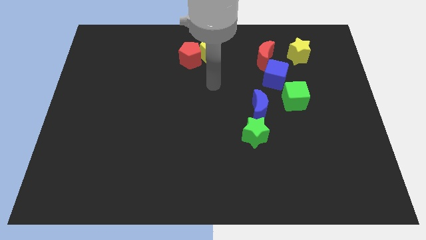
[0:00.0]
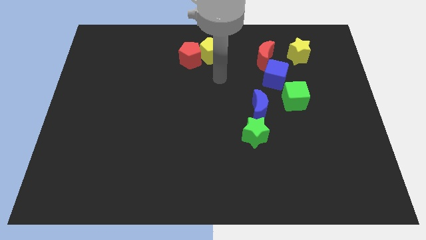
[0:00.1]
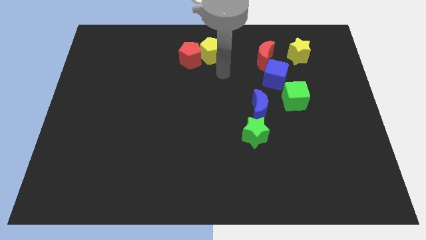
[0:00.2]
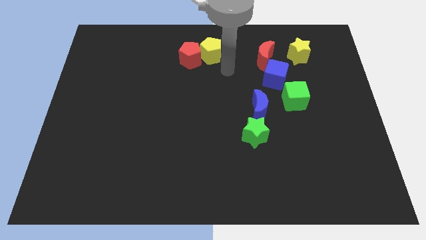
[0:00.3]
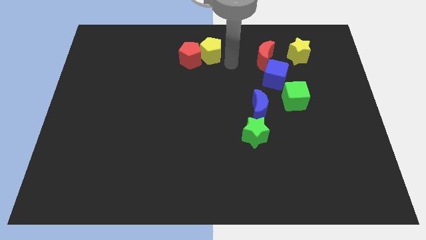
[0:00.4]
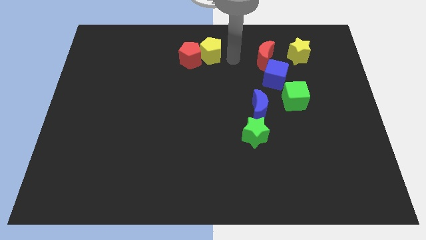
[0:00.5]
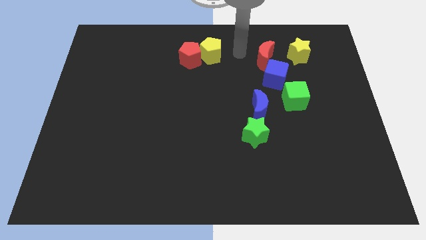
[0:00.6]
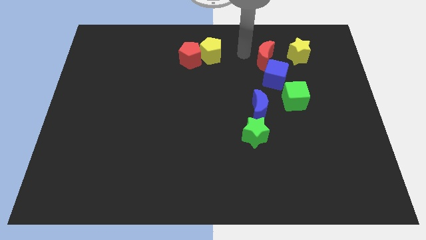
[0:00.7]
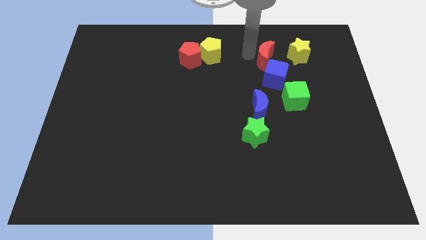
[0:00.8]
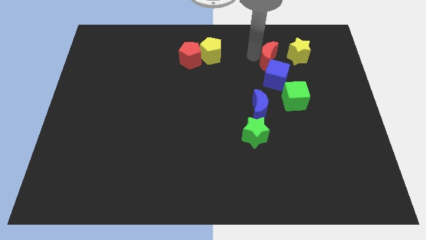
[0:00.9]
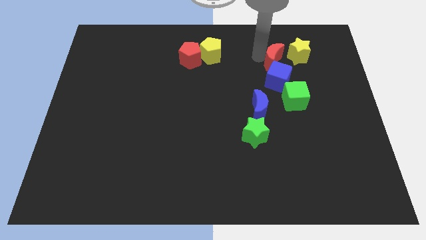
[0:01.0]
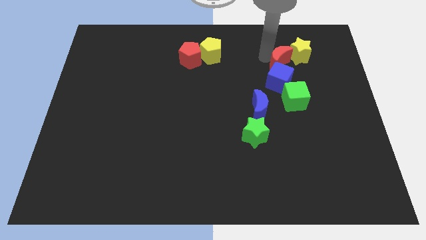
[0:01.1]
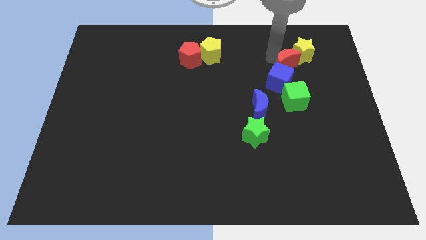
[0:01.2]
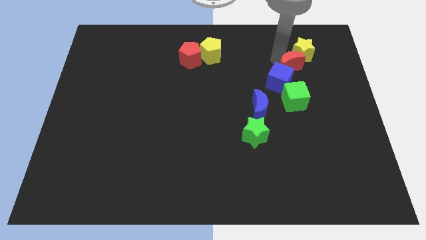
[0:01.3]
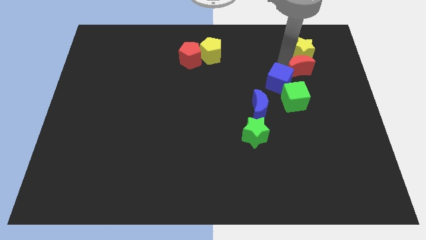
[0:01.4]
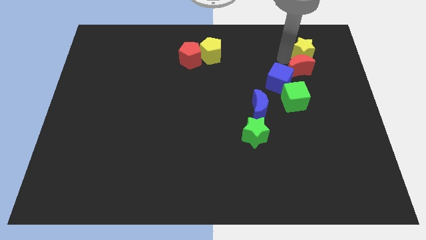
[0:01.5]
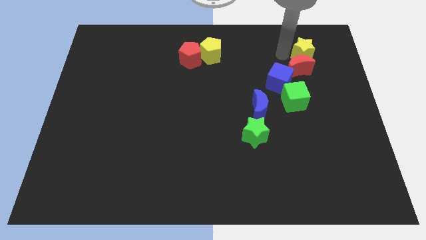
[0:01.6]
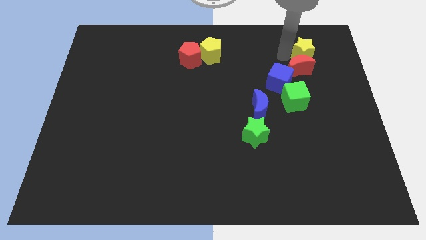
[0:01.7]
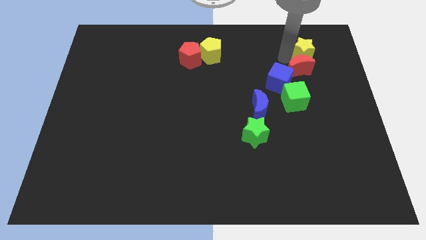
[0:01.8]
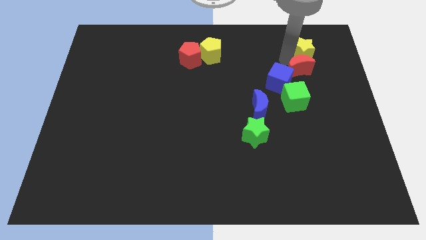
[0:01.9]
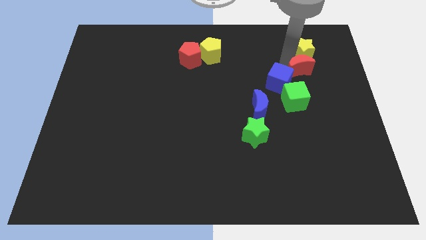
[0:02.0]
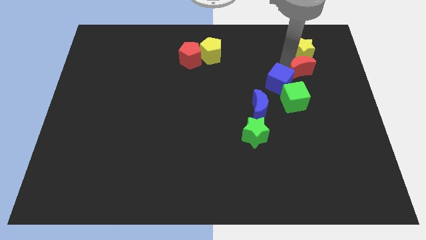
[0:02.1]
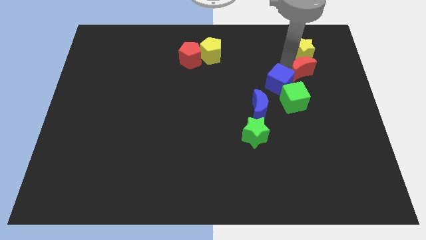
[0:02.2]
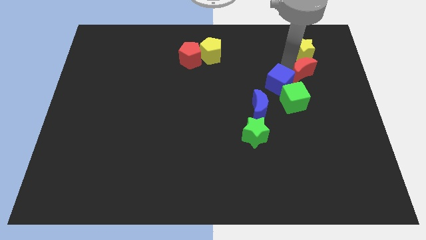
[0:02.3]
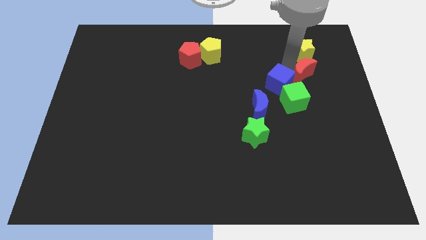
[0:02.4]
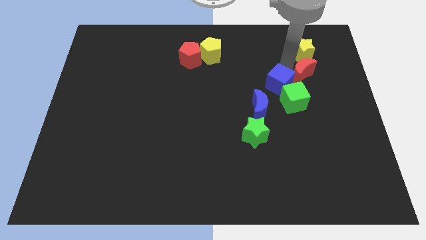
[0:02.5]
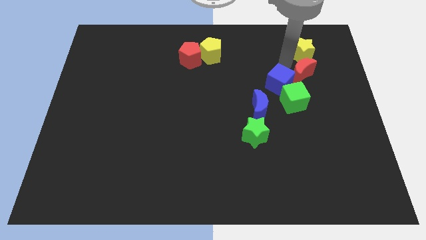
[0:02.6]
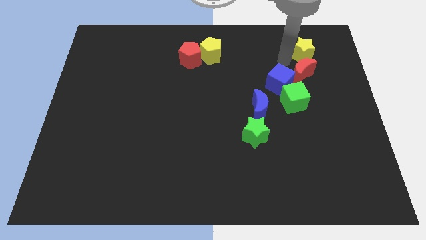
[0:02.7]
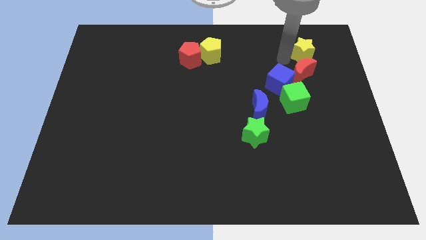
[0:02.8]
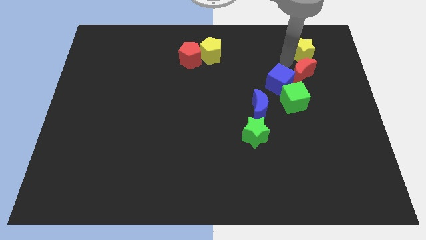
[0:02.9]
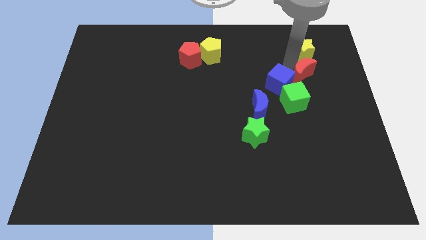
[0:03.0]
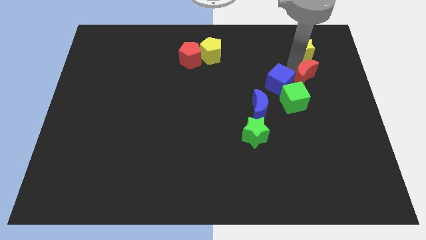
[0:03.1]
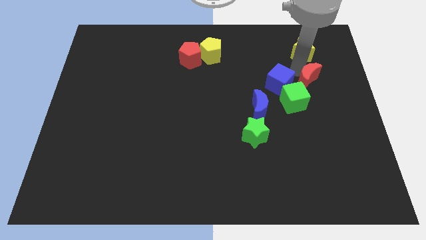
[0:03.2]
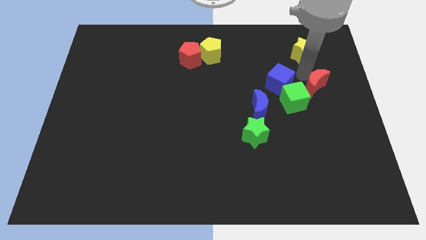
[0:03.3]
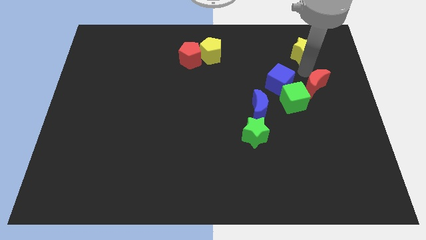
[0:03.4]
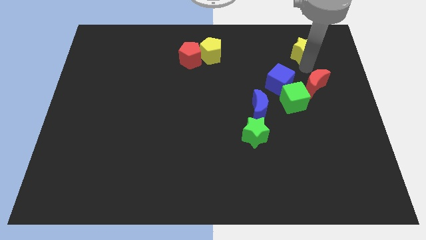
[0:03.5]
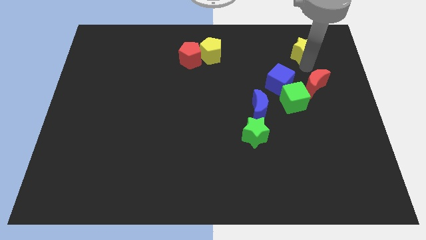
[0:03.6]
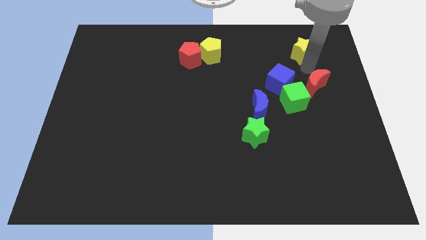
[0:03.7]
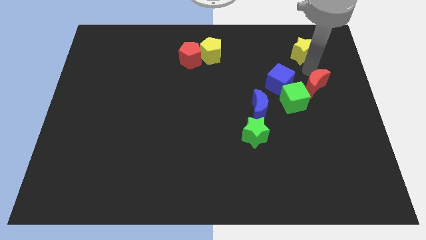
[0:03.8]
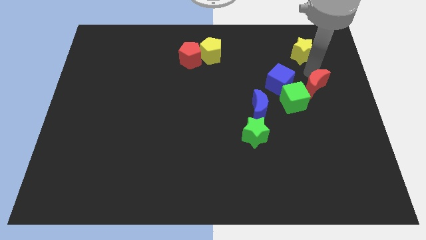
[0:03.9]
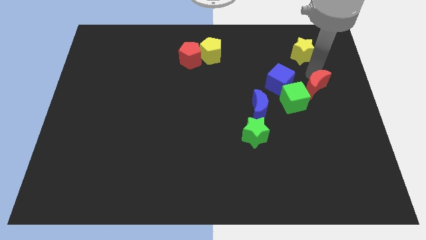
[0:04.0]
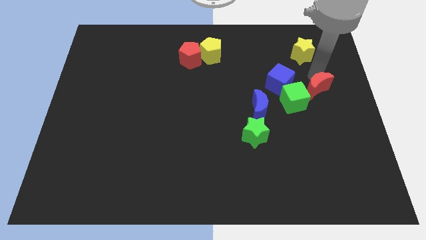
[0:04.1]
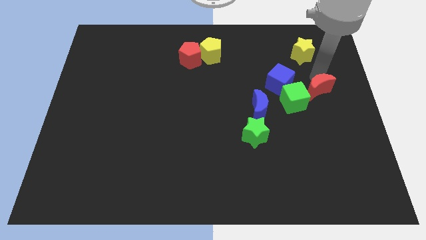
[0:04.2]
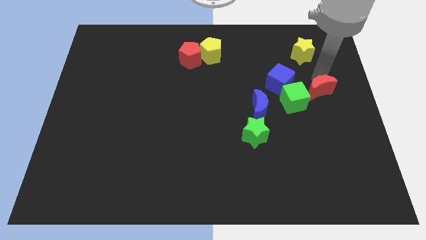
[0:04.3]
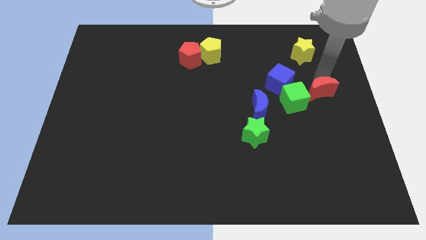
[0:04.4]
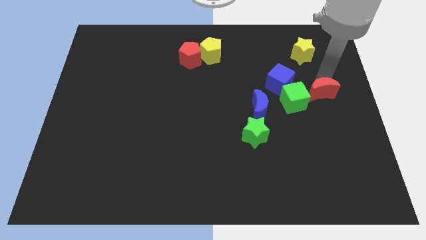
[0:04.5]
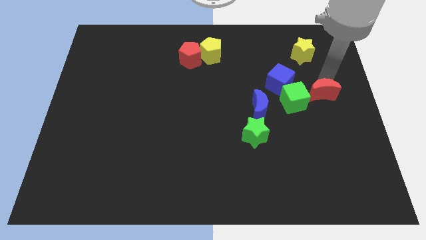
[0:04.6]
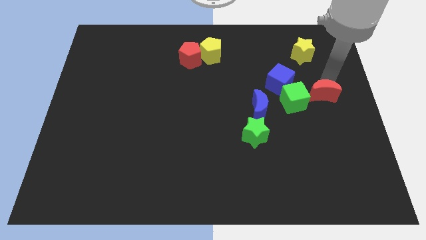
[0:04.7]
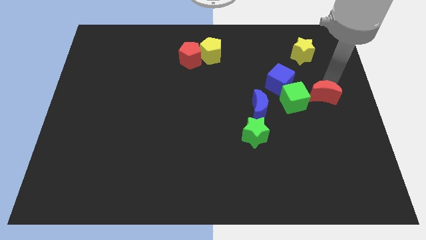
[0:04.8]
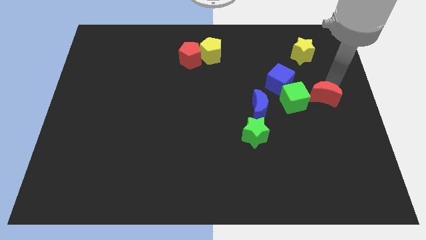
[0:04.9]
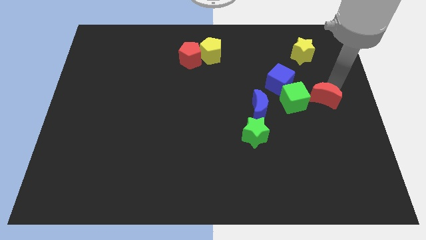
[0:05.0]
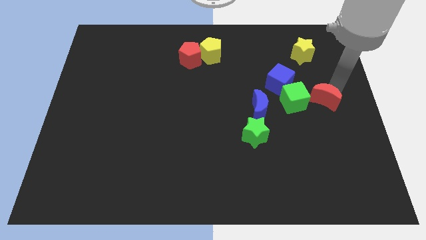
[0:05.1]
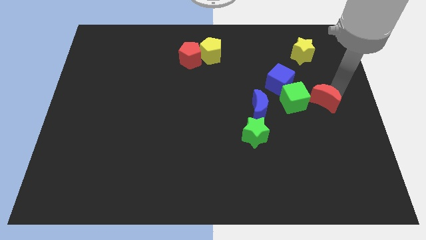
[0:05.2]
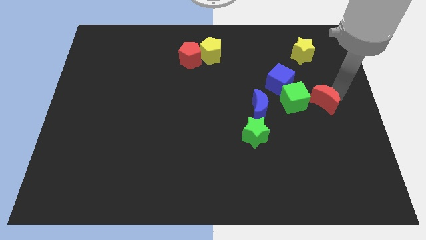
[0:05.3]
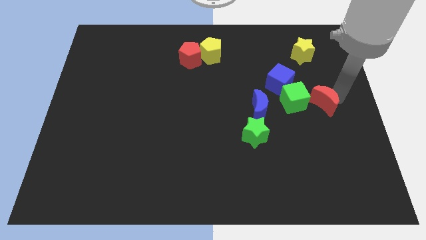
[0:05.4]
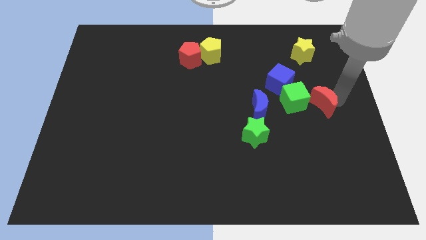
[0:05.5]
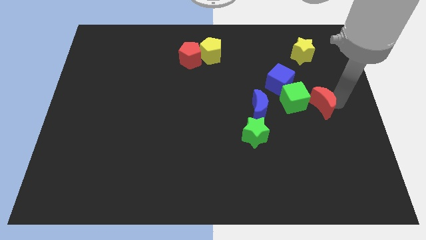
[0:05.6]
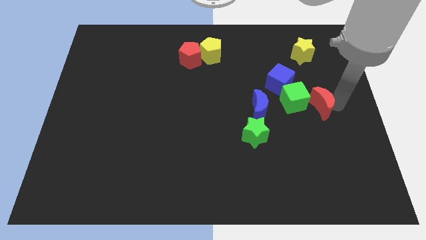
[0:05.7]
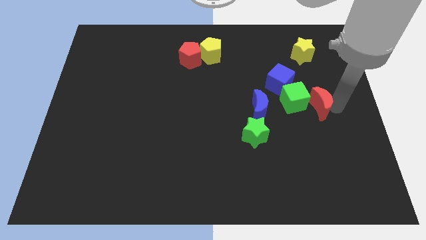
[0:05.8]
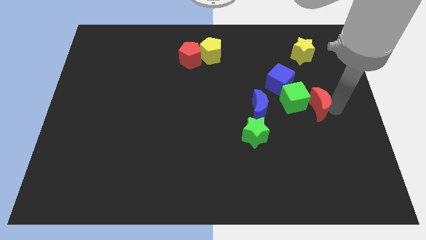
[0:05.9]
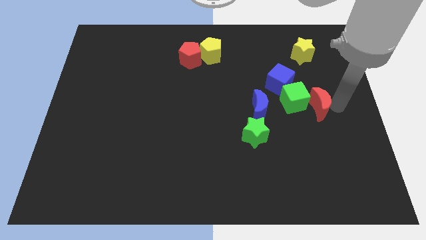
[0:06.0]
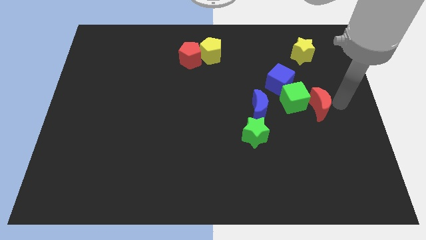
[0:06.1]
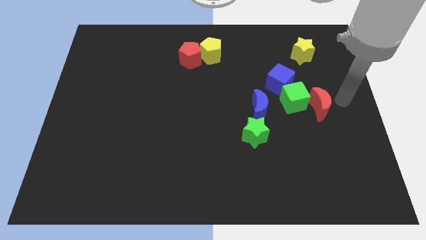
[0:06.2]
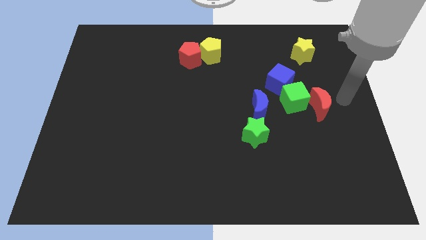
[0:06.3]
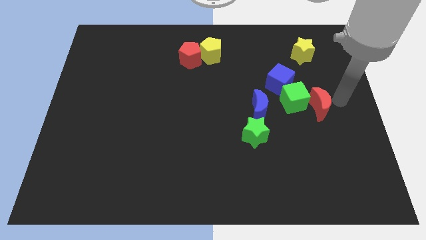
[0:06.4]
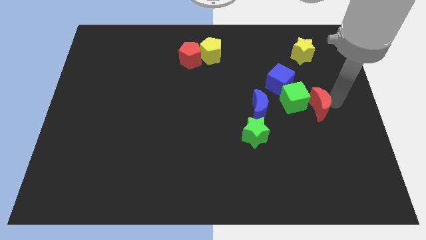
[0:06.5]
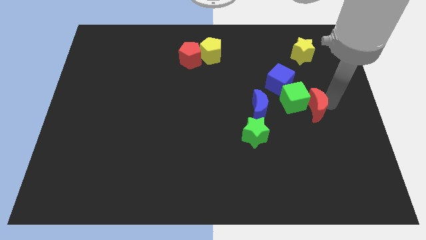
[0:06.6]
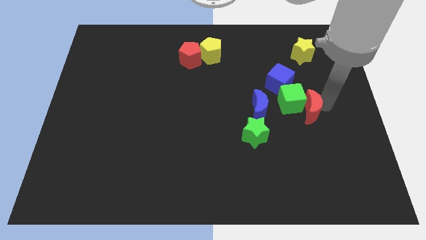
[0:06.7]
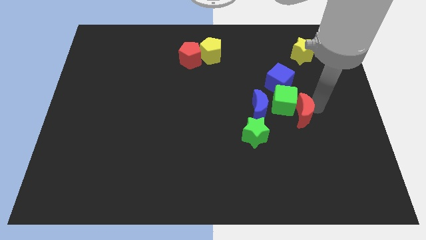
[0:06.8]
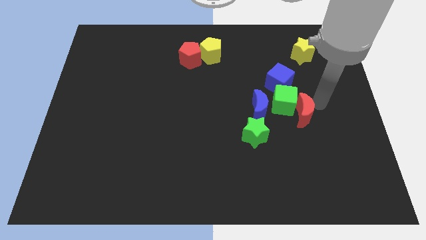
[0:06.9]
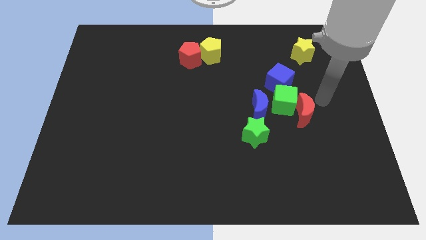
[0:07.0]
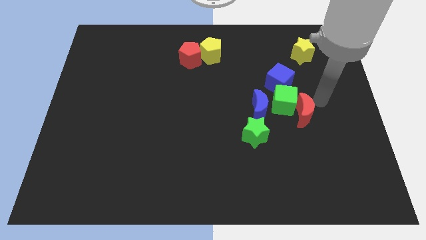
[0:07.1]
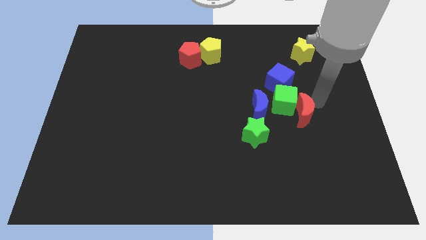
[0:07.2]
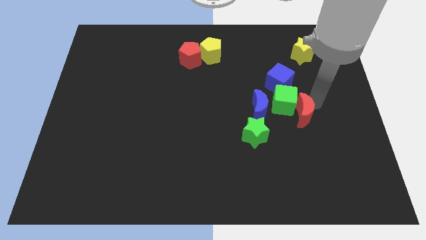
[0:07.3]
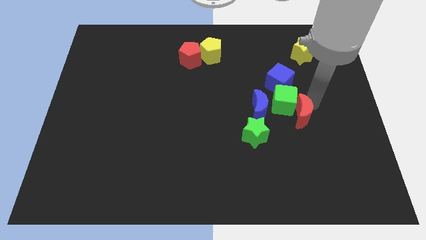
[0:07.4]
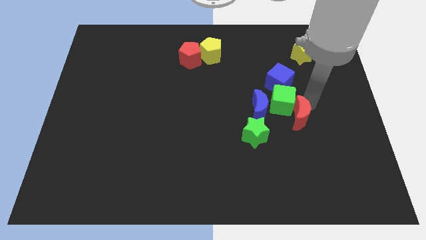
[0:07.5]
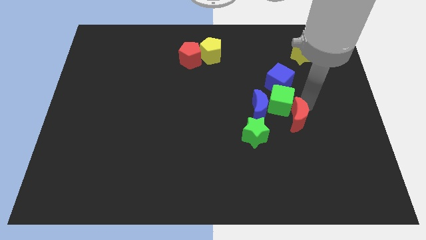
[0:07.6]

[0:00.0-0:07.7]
slide the red moon to the bottom right side of the blue moon

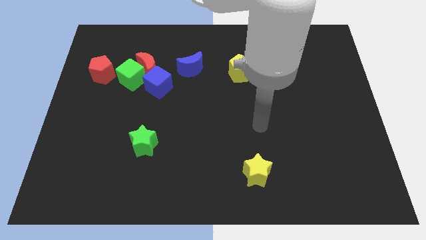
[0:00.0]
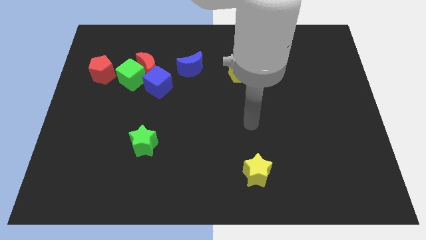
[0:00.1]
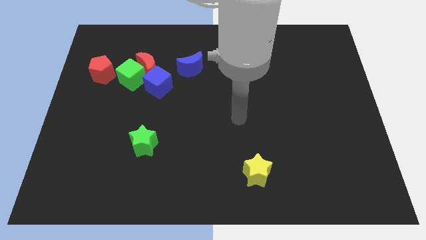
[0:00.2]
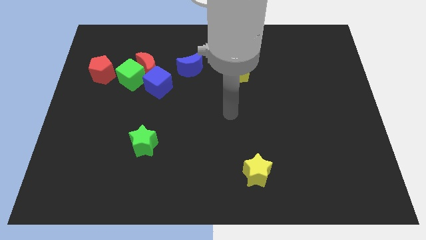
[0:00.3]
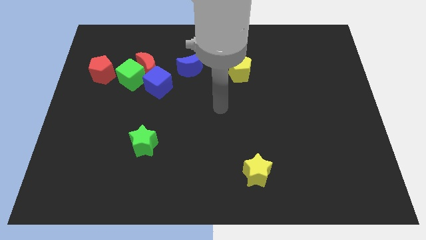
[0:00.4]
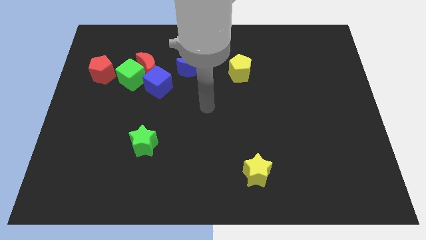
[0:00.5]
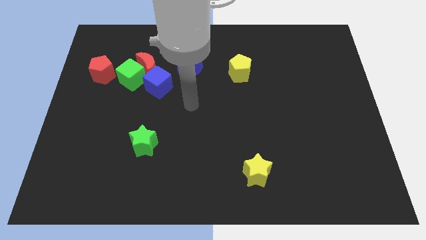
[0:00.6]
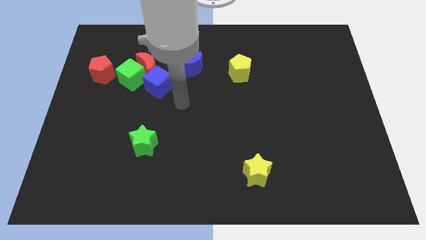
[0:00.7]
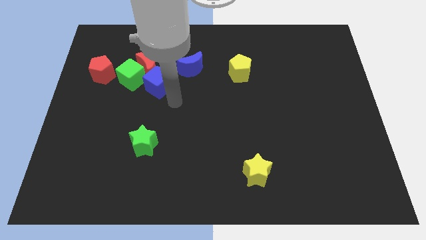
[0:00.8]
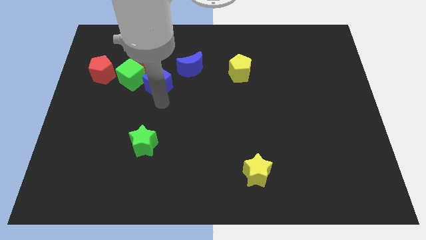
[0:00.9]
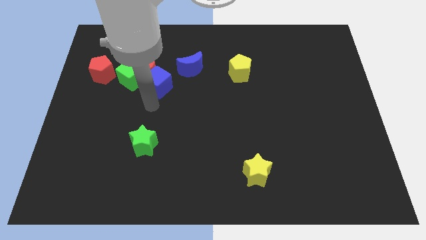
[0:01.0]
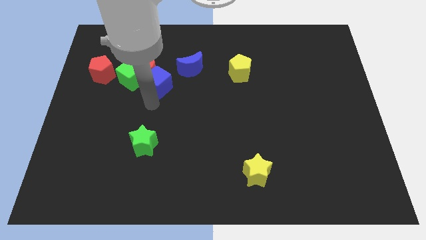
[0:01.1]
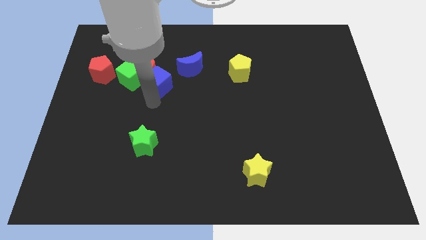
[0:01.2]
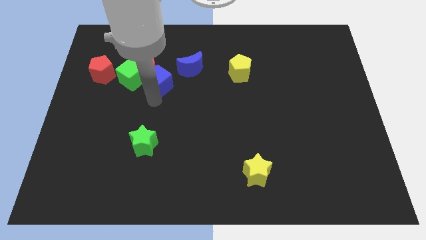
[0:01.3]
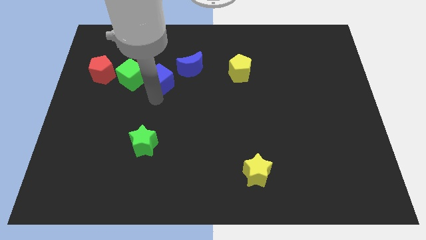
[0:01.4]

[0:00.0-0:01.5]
move the blue cube to the right side of the red pentagon
